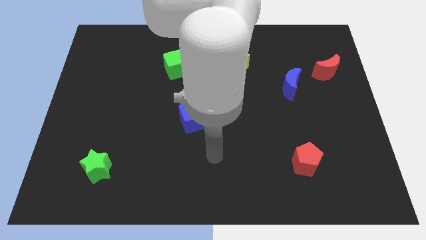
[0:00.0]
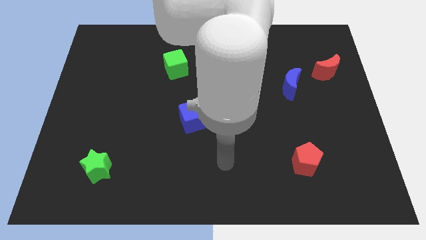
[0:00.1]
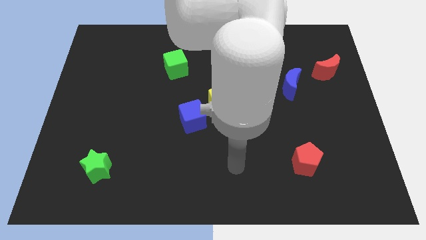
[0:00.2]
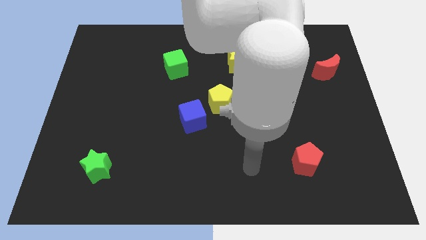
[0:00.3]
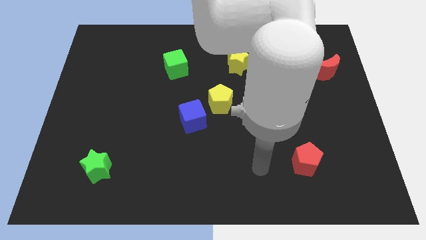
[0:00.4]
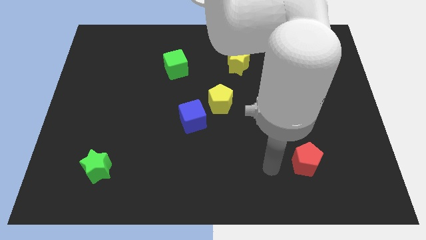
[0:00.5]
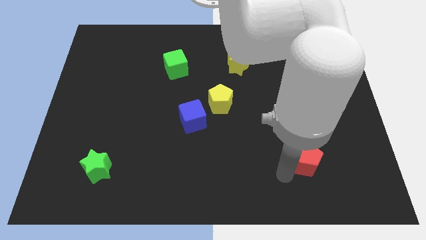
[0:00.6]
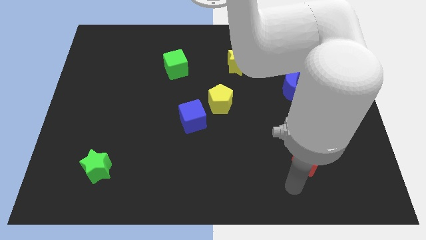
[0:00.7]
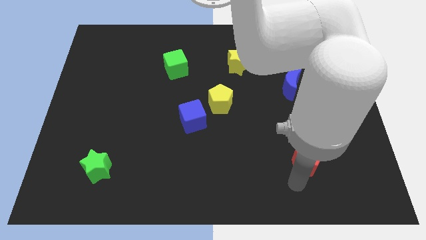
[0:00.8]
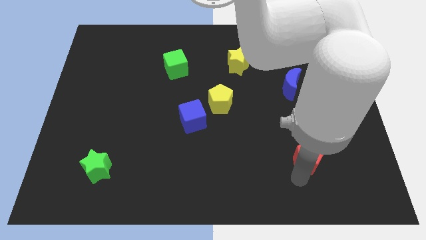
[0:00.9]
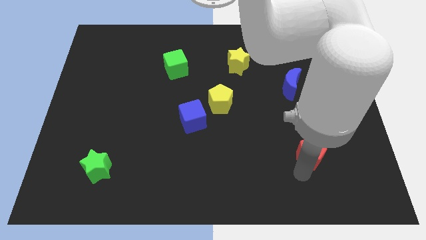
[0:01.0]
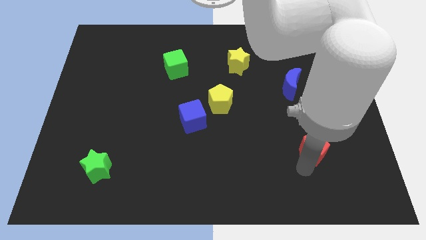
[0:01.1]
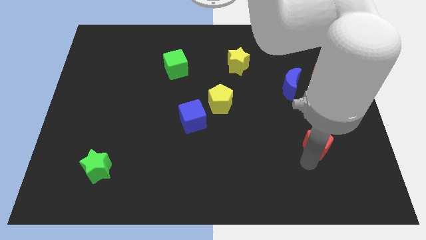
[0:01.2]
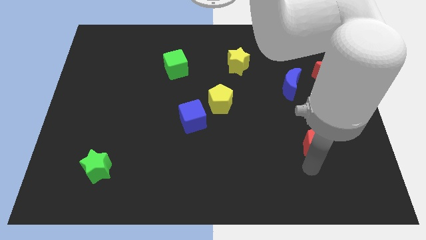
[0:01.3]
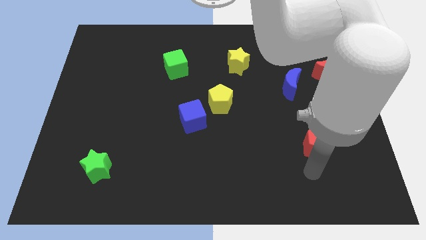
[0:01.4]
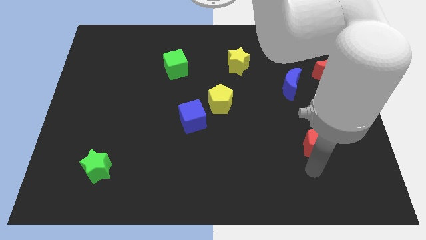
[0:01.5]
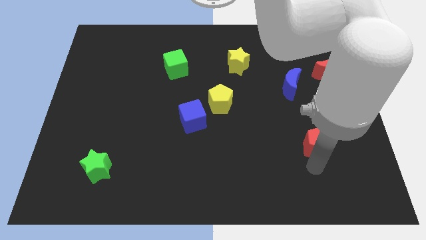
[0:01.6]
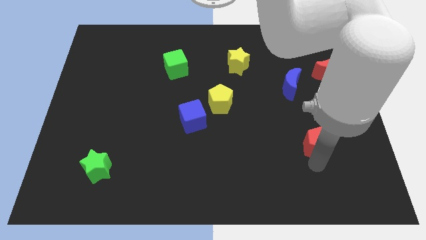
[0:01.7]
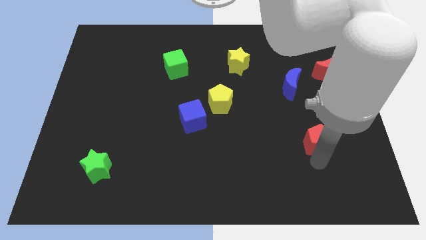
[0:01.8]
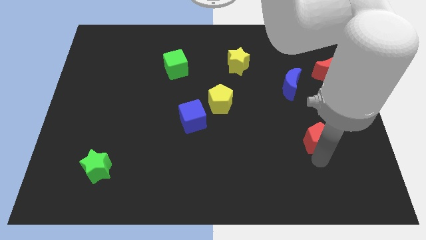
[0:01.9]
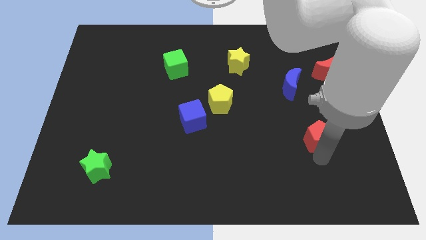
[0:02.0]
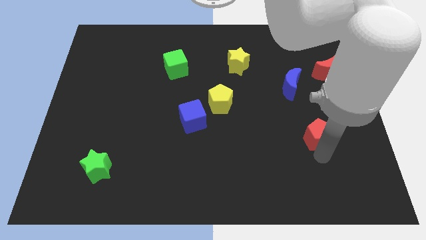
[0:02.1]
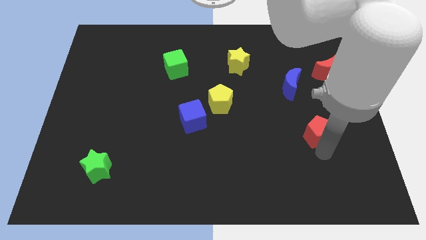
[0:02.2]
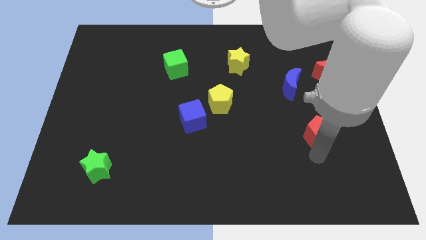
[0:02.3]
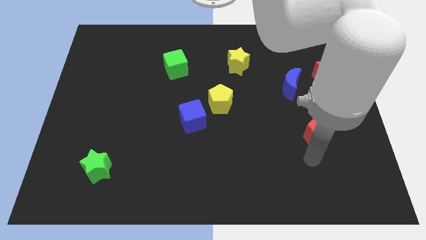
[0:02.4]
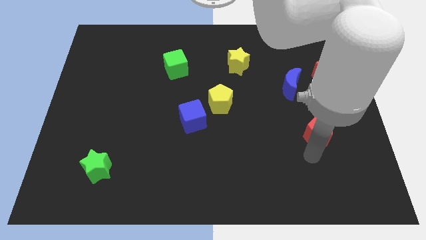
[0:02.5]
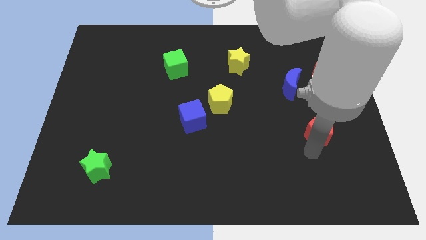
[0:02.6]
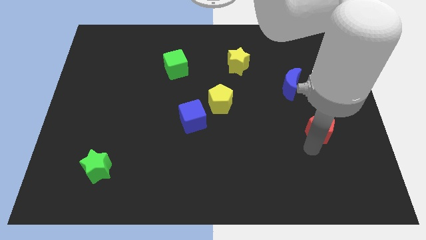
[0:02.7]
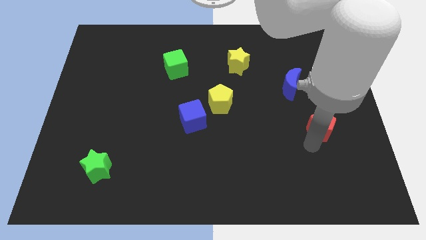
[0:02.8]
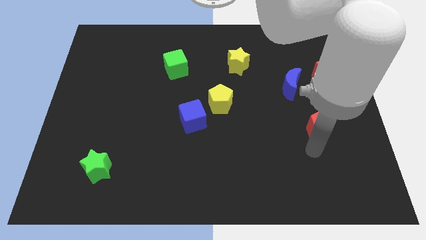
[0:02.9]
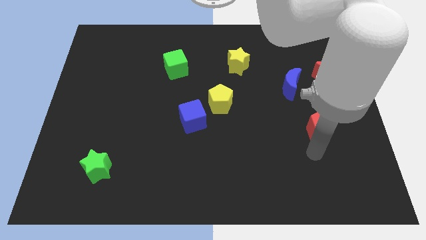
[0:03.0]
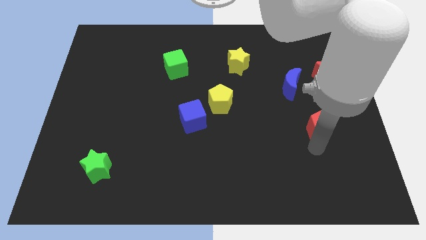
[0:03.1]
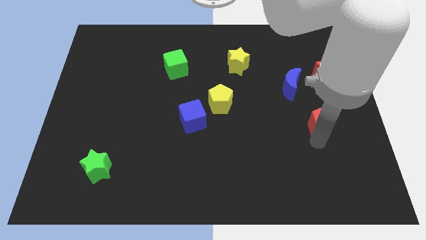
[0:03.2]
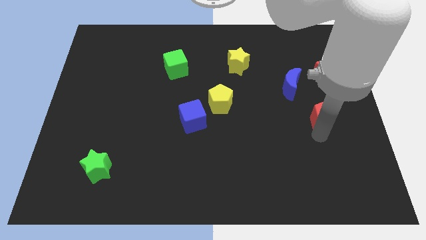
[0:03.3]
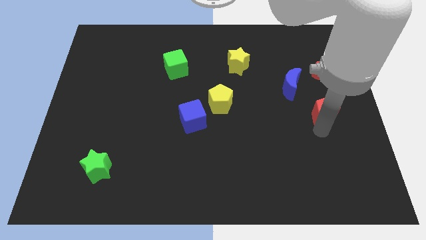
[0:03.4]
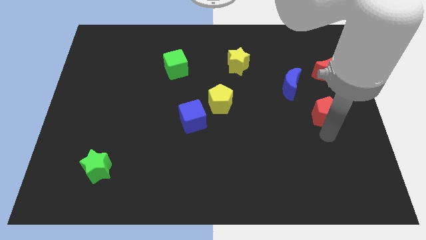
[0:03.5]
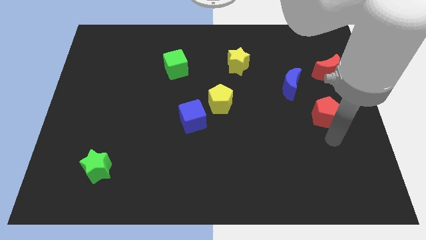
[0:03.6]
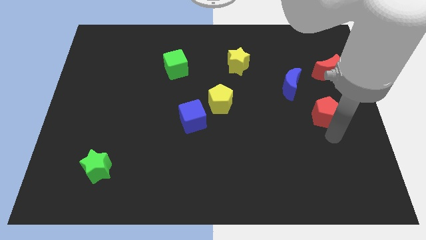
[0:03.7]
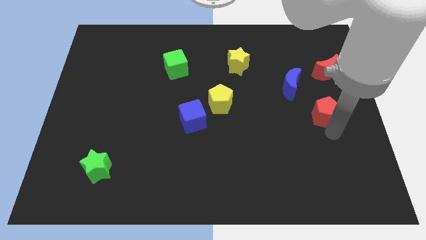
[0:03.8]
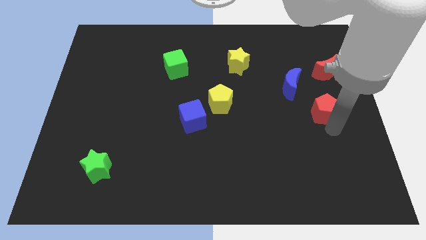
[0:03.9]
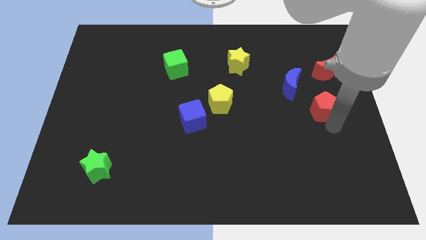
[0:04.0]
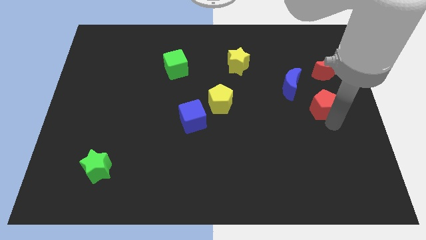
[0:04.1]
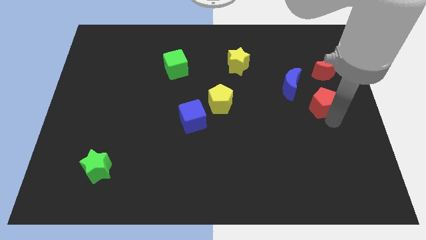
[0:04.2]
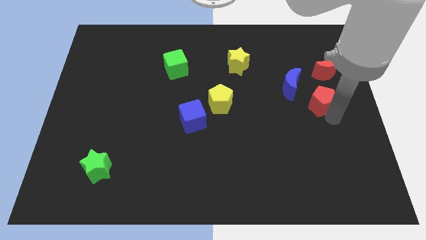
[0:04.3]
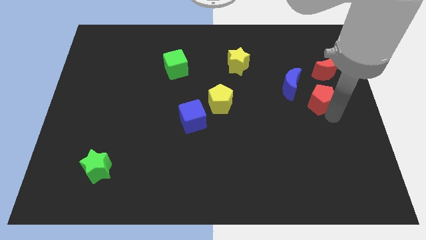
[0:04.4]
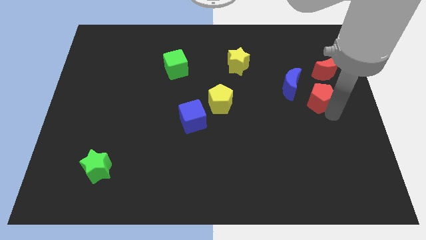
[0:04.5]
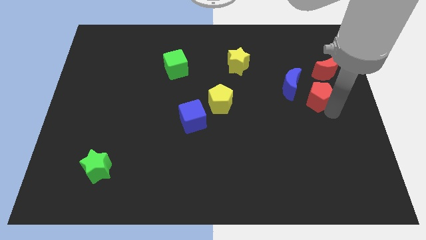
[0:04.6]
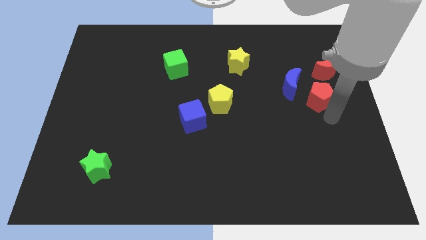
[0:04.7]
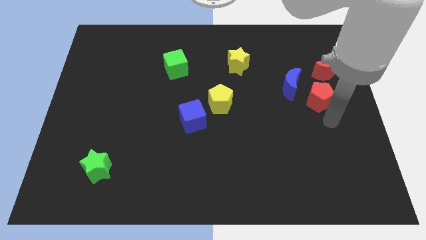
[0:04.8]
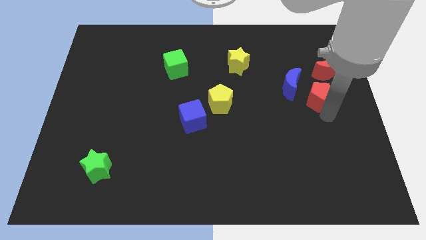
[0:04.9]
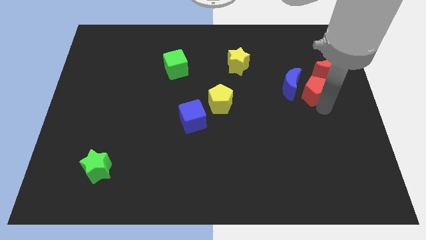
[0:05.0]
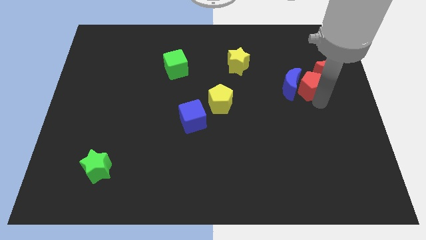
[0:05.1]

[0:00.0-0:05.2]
move the red pentagon up

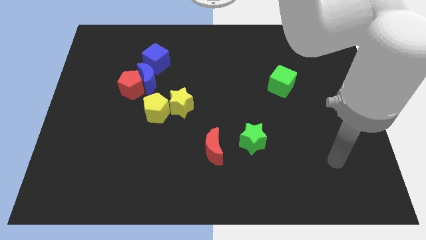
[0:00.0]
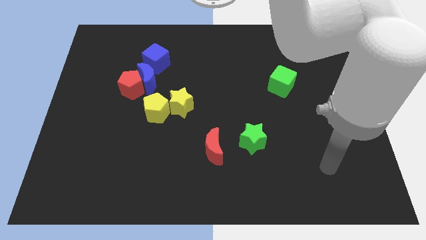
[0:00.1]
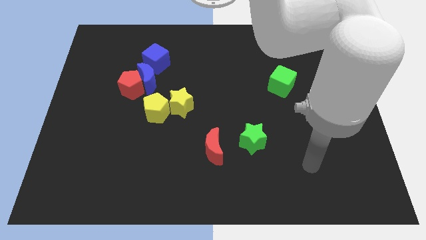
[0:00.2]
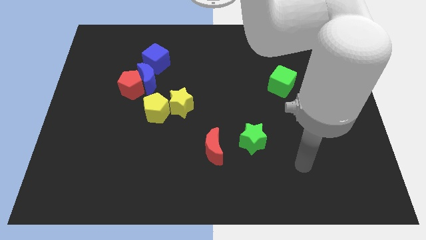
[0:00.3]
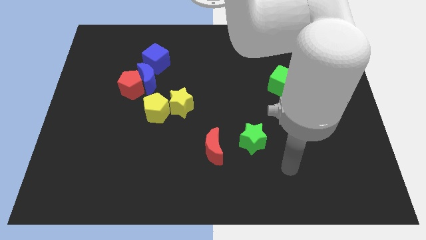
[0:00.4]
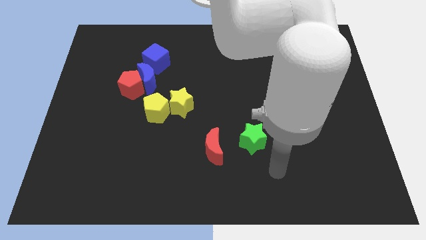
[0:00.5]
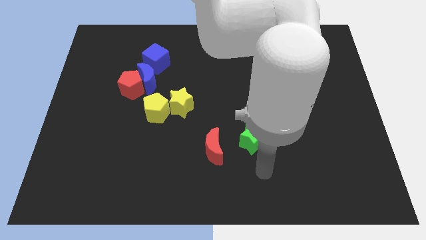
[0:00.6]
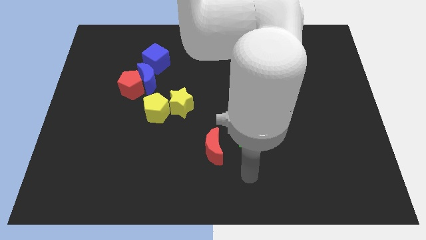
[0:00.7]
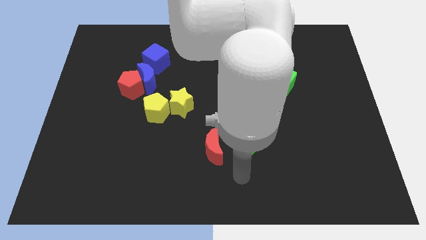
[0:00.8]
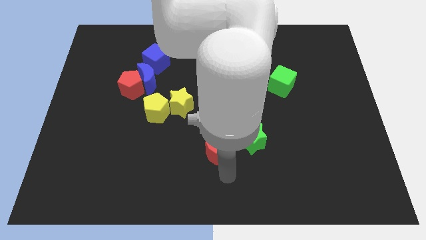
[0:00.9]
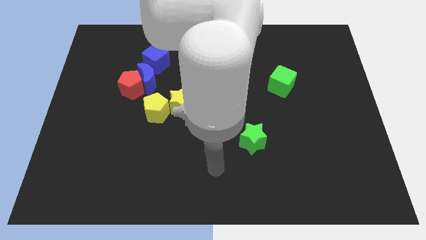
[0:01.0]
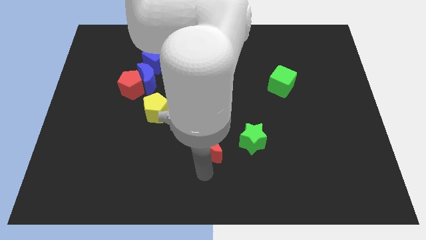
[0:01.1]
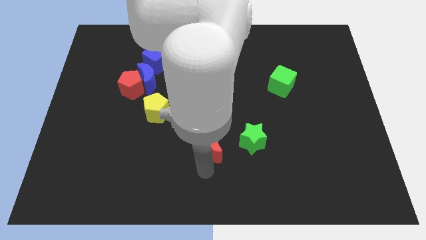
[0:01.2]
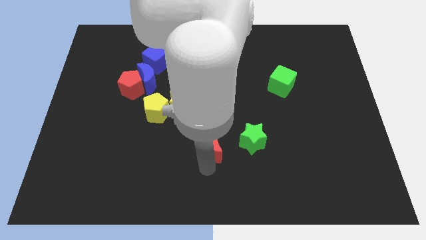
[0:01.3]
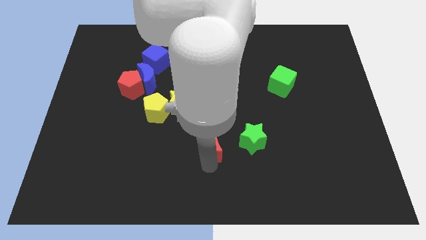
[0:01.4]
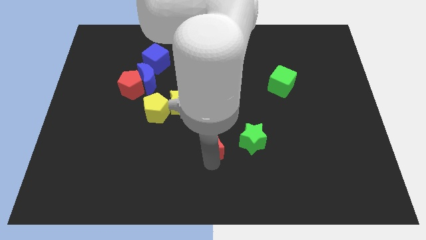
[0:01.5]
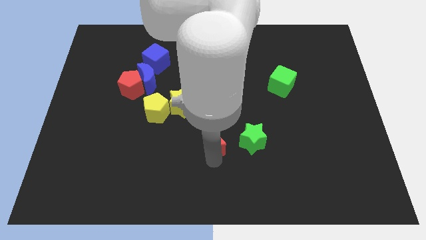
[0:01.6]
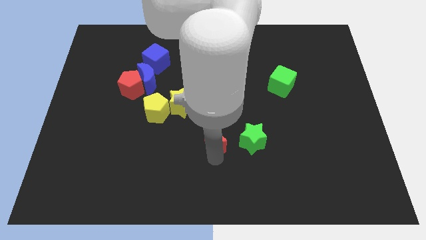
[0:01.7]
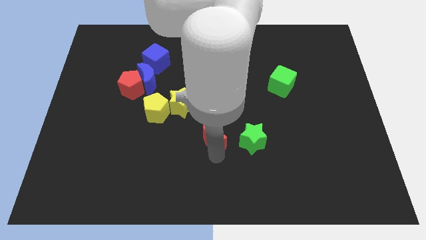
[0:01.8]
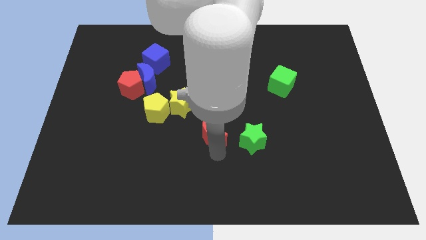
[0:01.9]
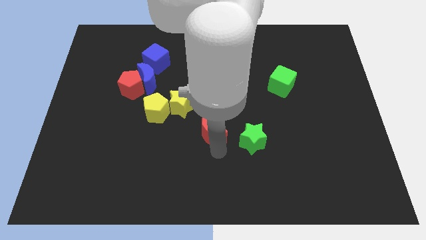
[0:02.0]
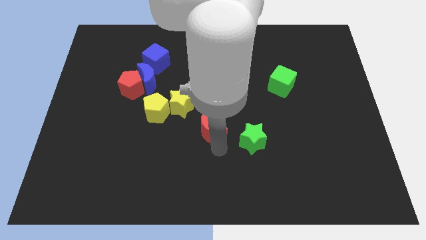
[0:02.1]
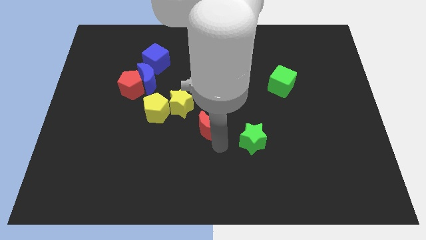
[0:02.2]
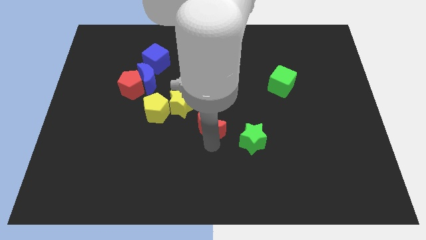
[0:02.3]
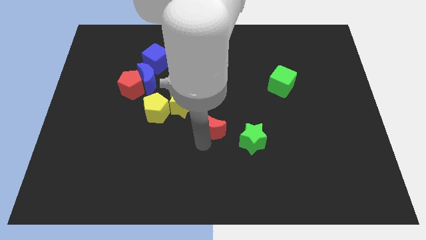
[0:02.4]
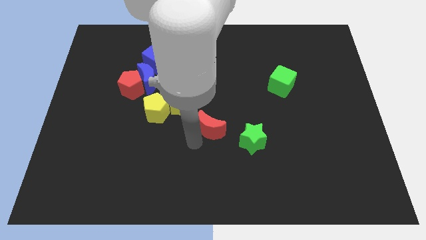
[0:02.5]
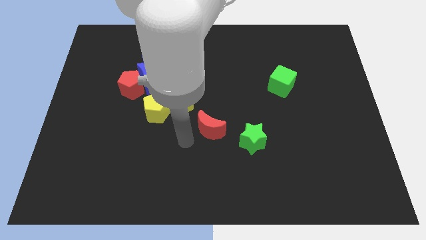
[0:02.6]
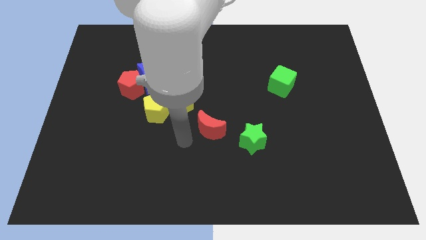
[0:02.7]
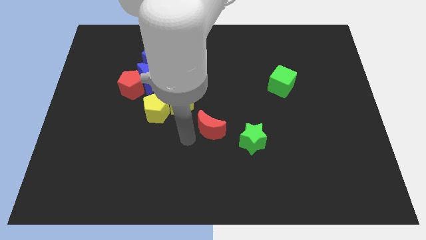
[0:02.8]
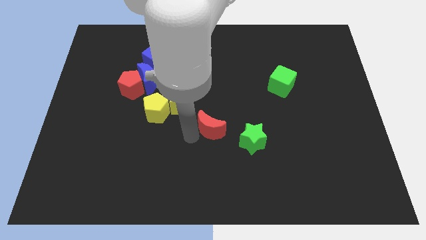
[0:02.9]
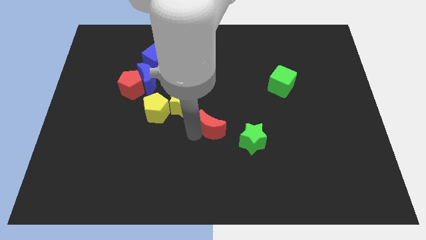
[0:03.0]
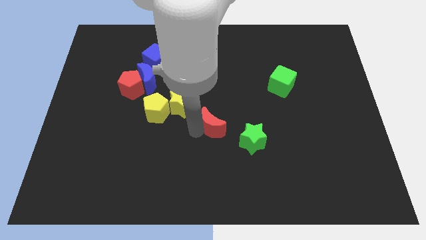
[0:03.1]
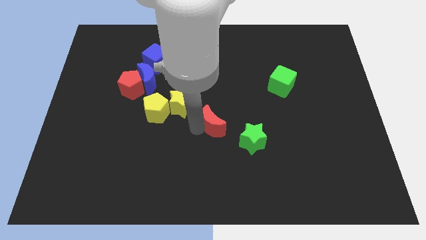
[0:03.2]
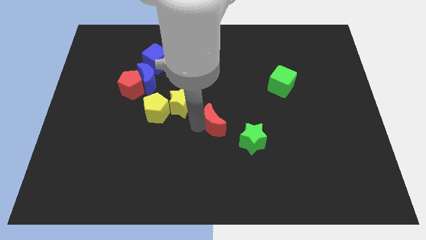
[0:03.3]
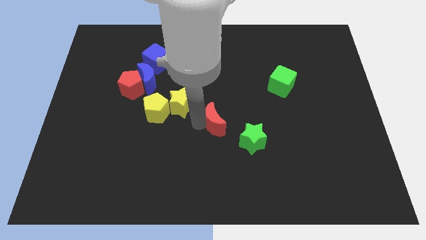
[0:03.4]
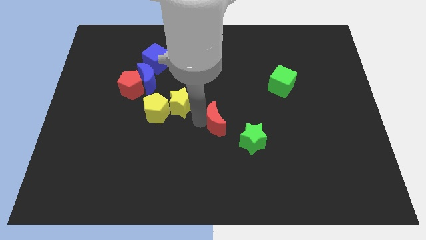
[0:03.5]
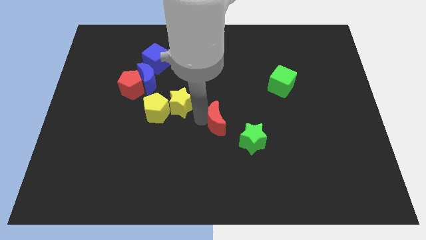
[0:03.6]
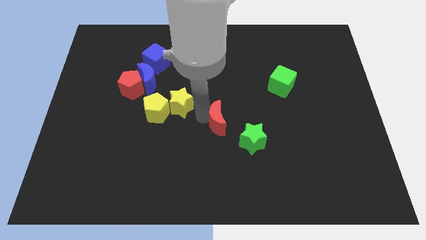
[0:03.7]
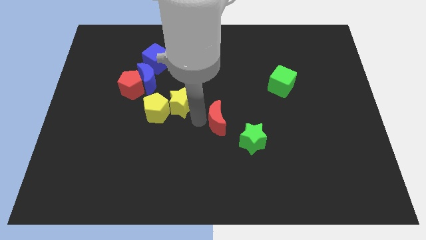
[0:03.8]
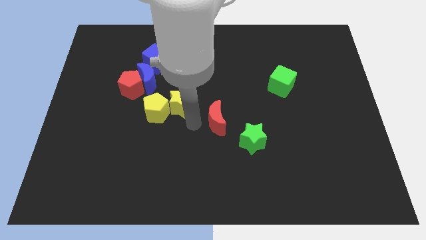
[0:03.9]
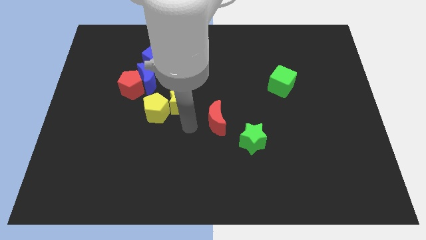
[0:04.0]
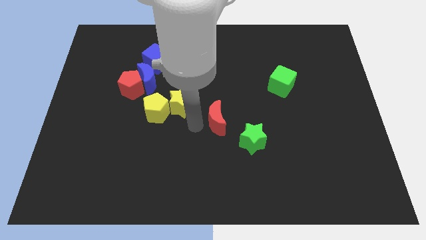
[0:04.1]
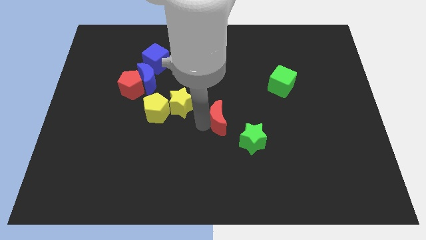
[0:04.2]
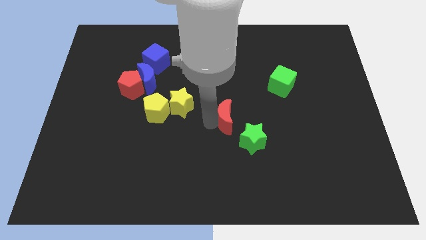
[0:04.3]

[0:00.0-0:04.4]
slightly slide the red moon diagonally upwards and right
